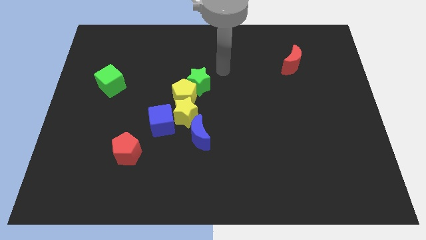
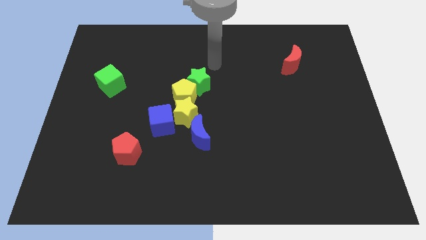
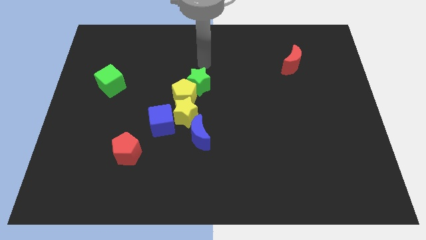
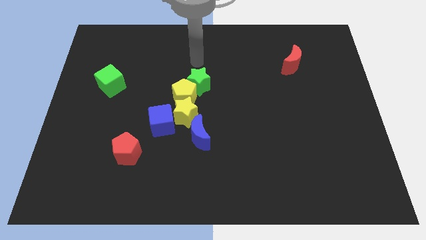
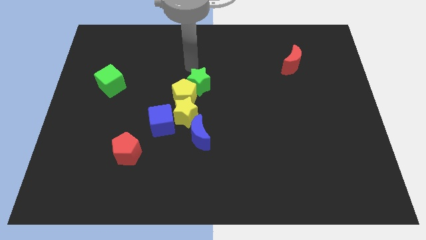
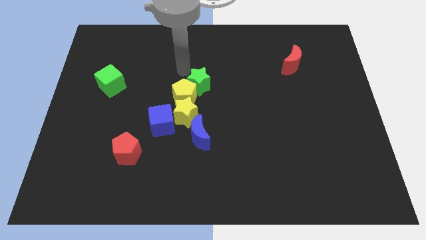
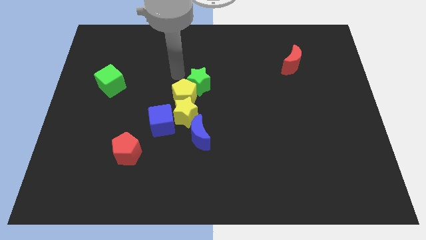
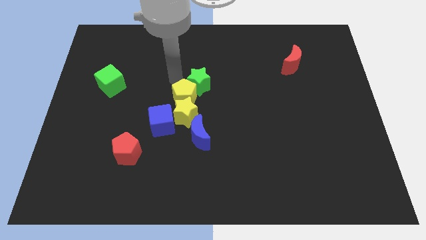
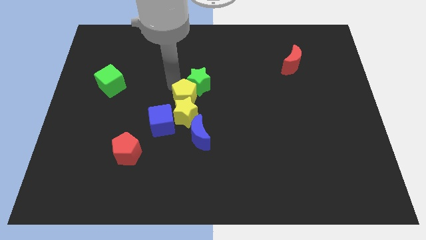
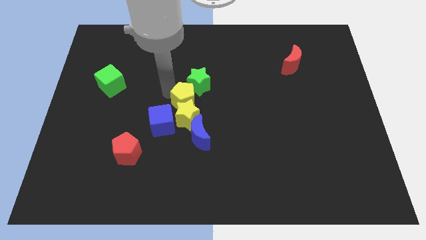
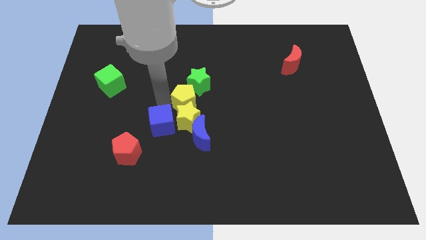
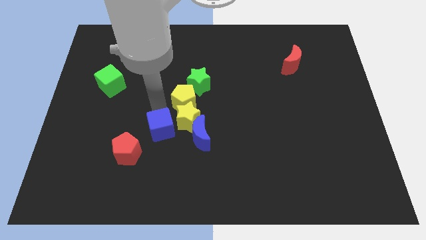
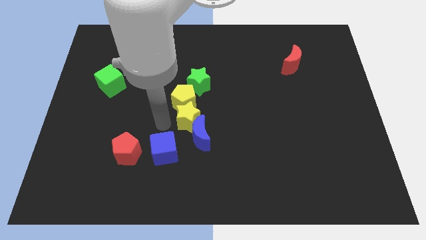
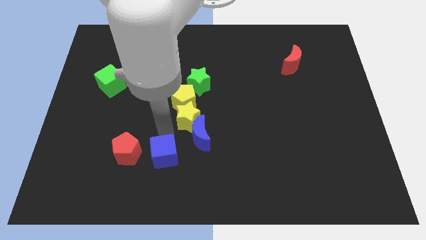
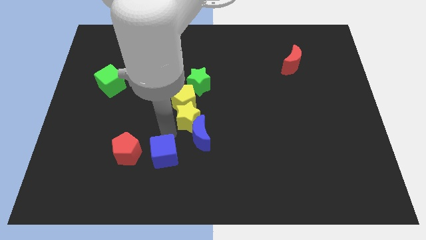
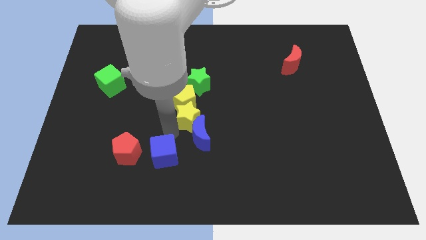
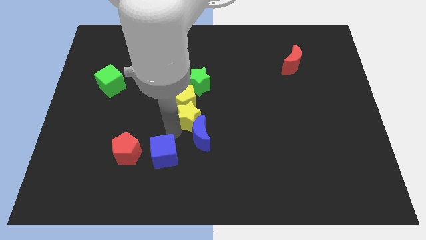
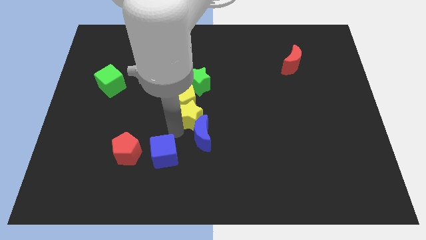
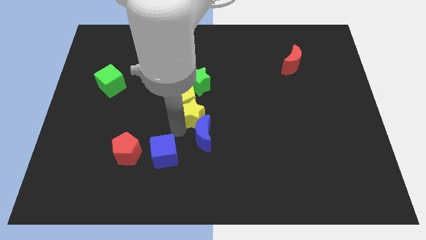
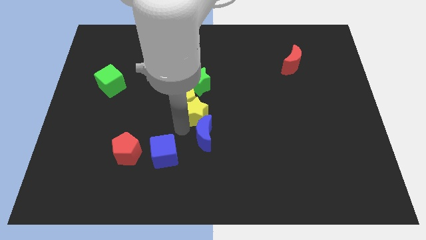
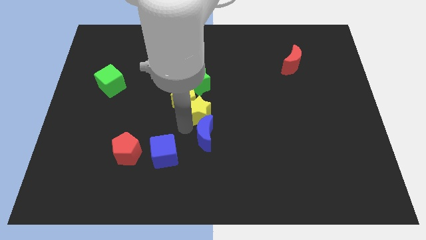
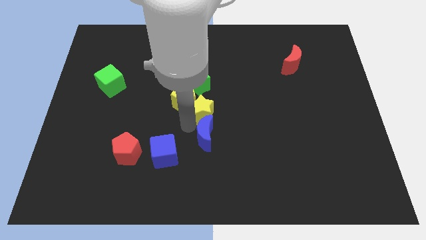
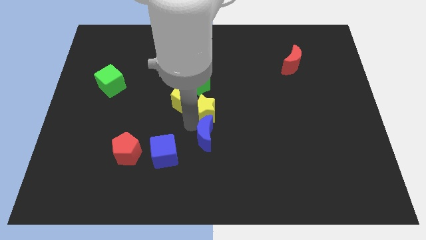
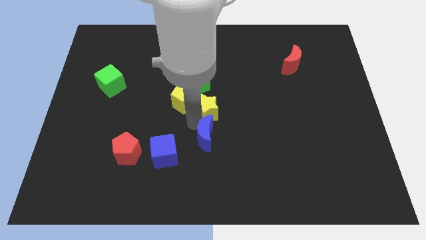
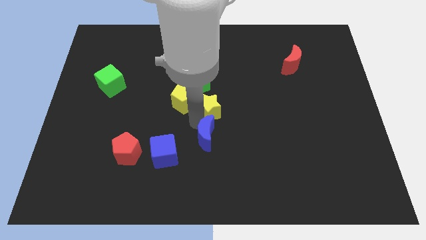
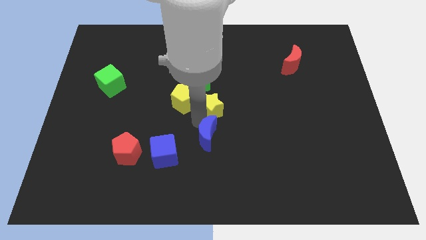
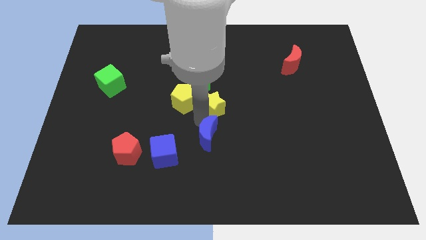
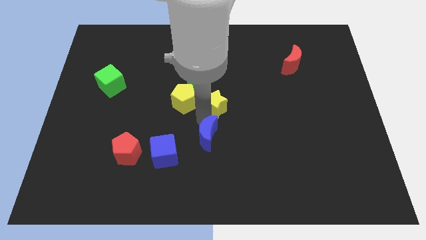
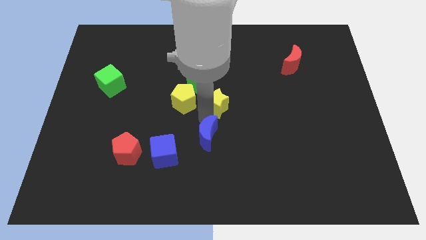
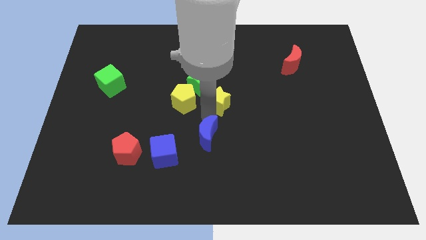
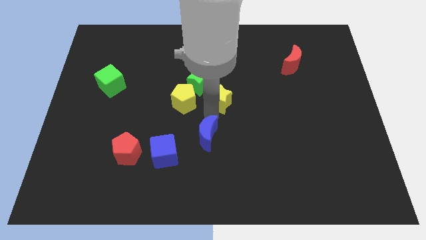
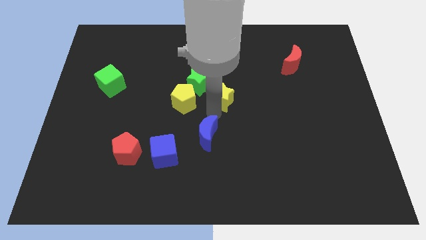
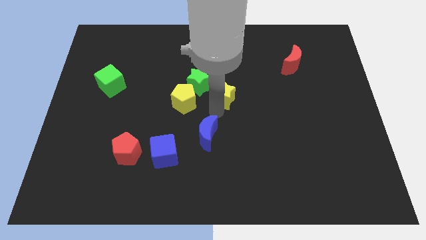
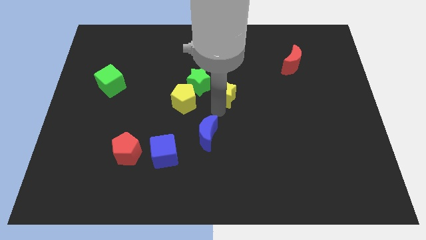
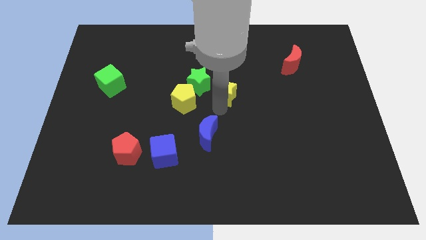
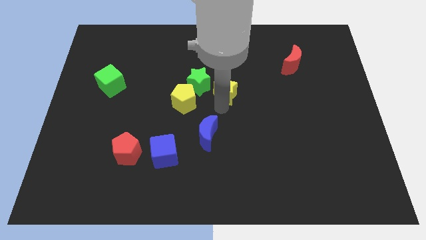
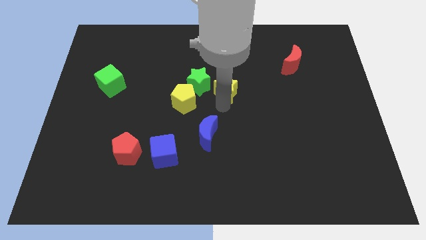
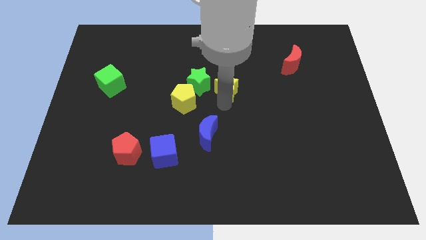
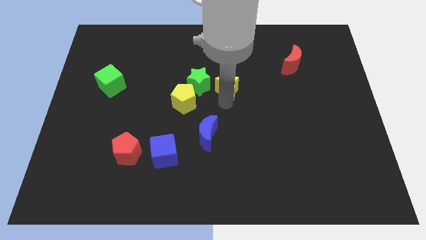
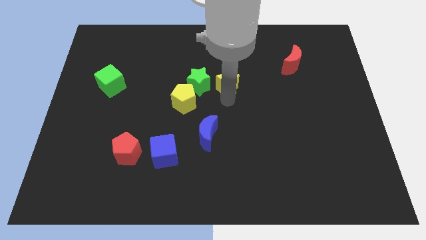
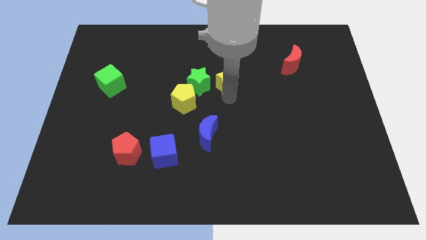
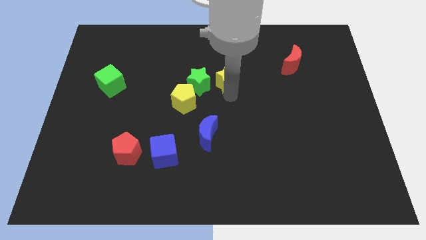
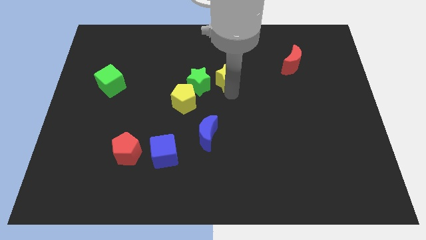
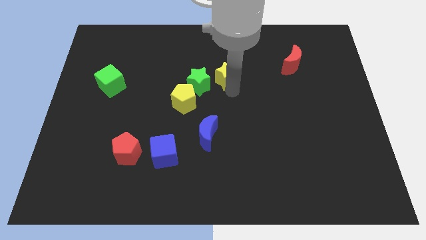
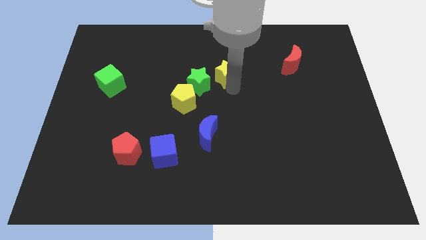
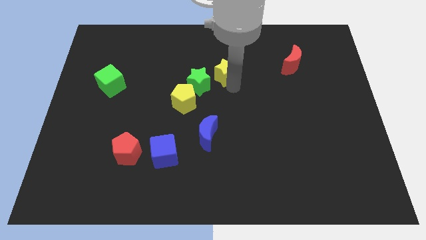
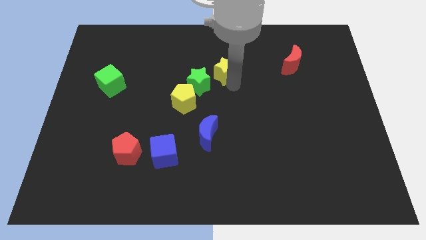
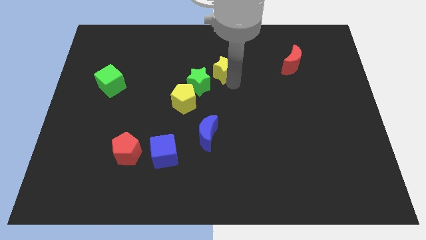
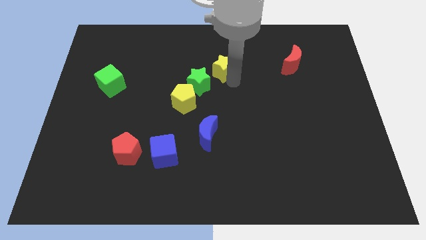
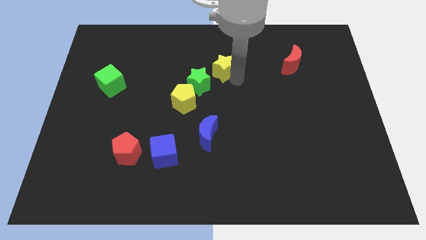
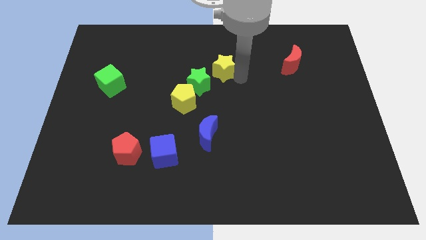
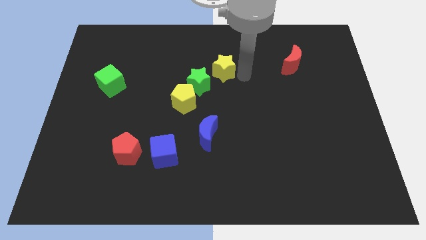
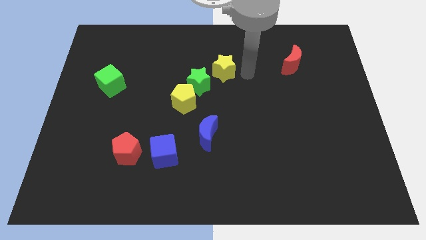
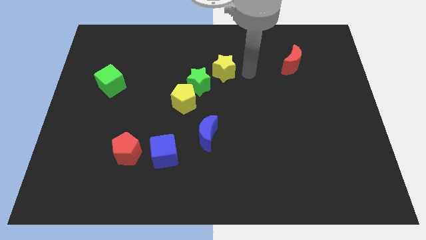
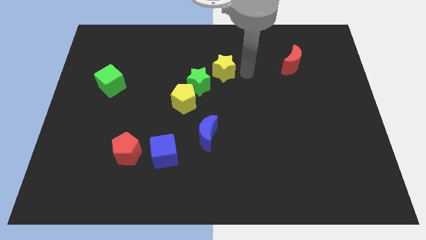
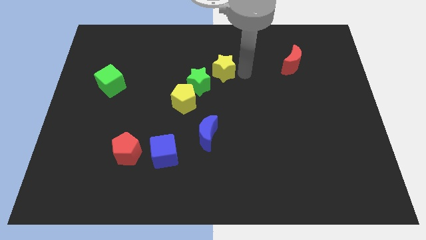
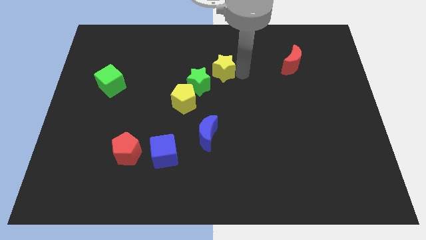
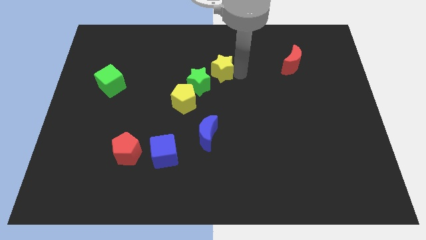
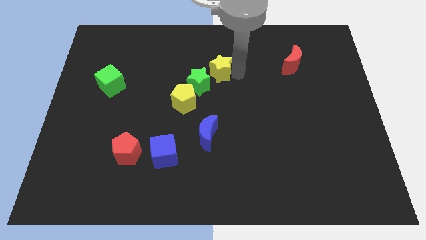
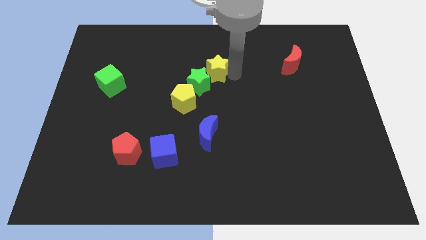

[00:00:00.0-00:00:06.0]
push the yellow star to the top of the green star

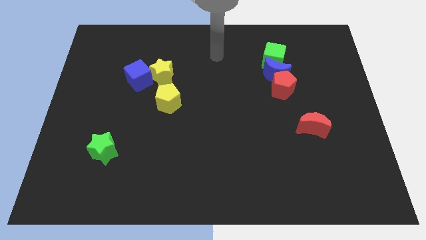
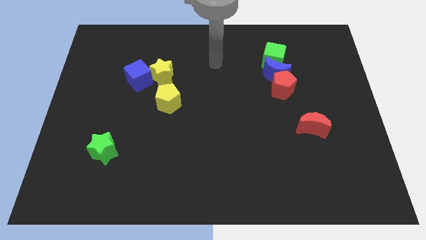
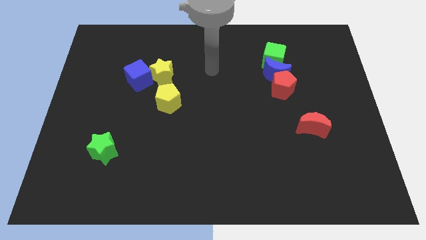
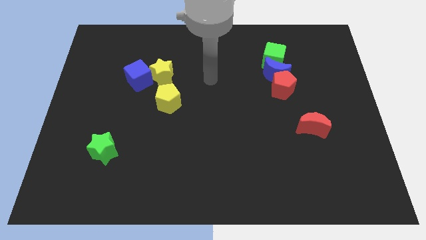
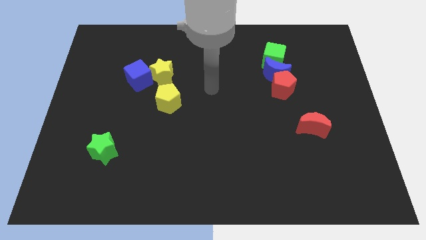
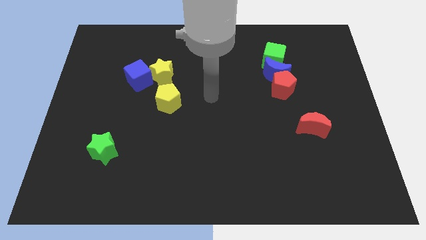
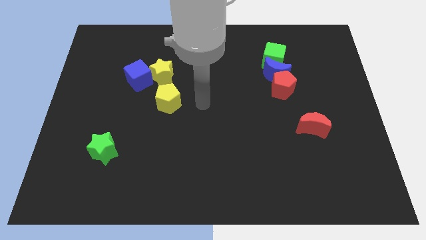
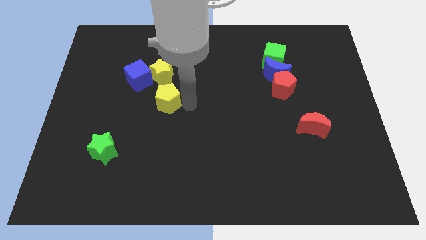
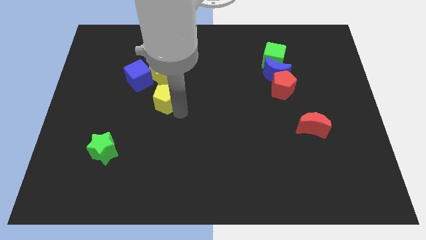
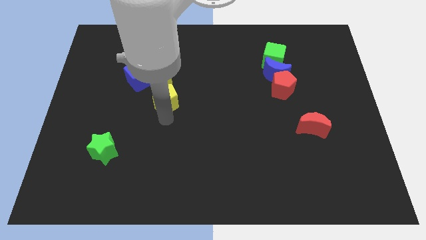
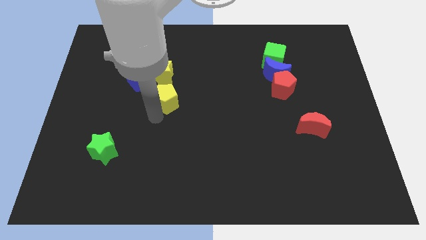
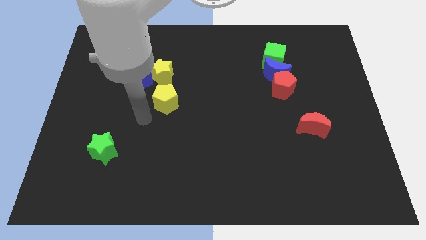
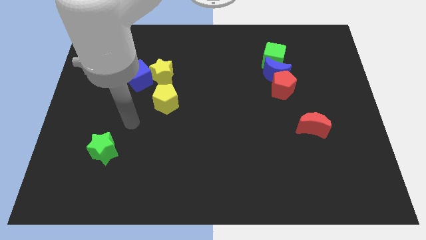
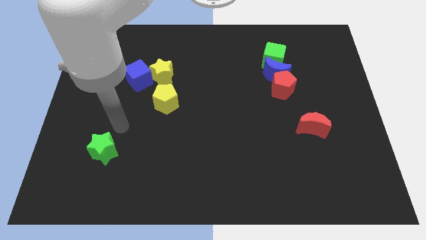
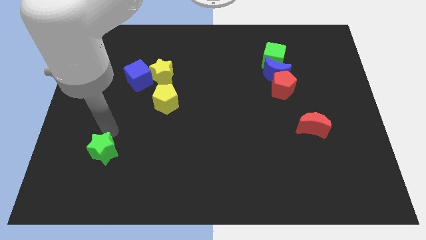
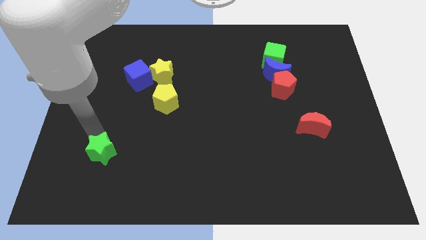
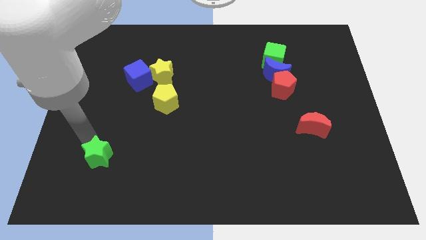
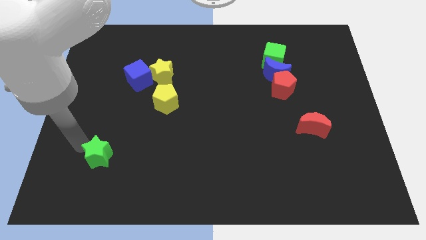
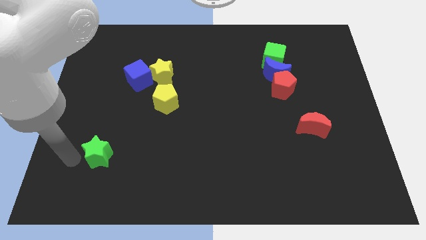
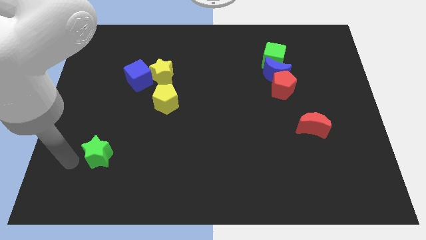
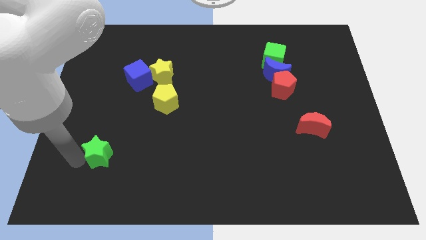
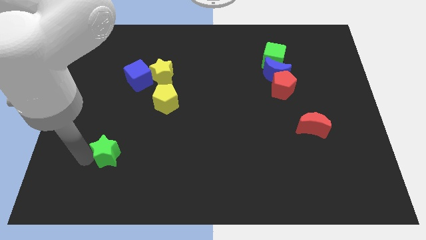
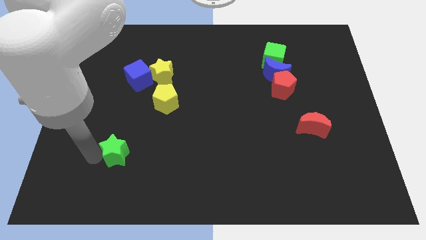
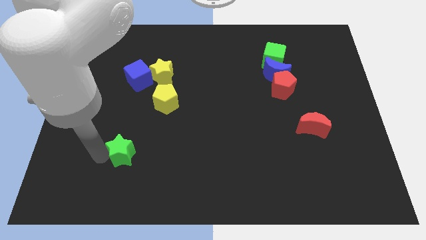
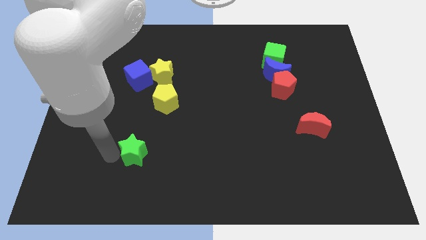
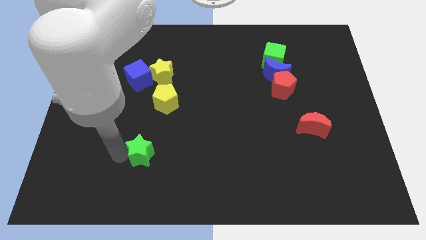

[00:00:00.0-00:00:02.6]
push the green star to the bottom side of the yellow pentagon
